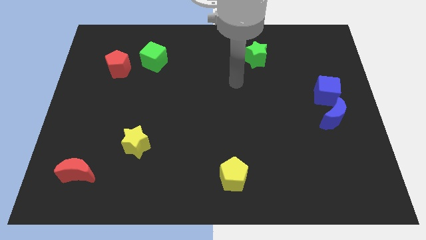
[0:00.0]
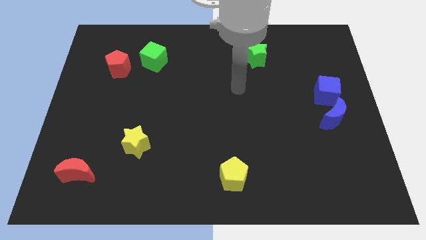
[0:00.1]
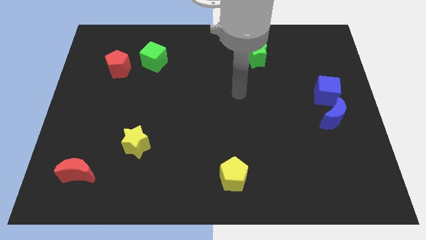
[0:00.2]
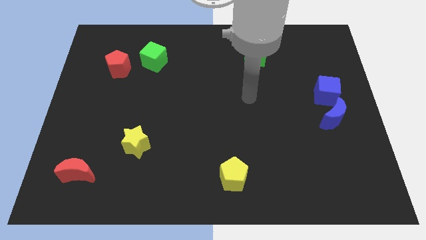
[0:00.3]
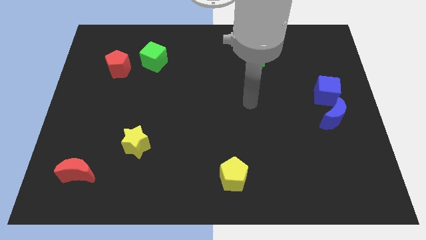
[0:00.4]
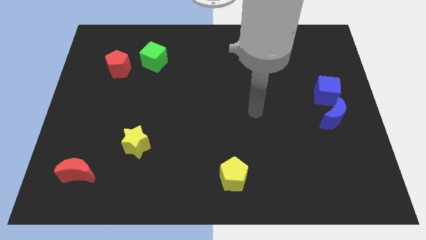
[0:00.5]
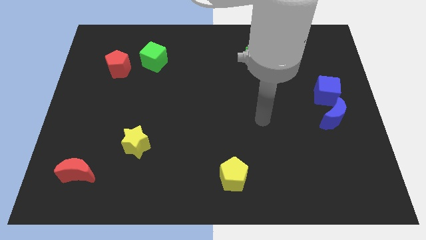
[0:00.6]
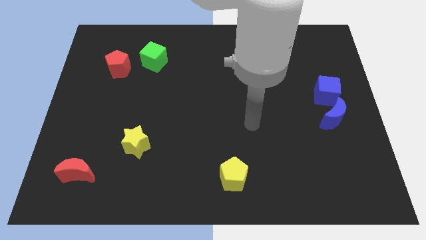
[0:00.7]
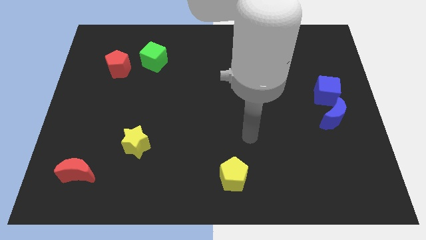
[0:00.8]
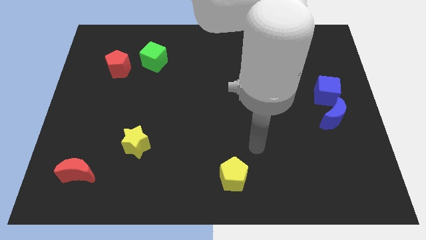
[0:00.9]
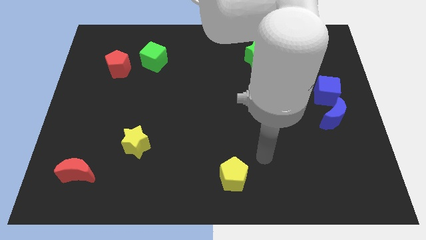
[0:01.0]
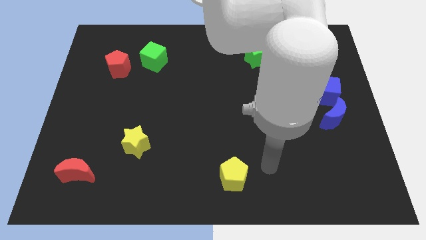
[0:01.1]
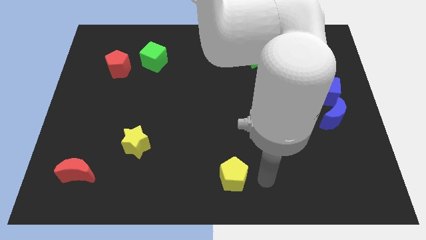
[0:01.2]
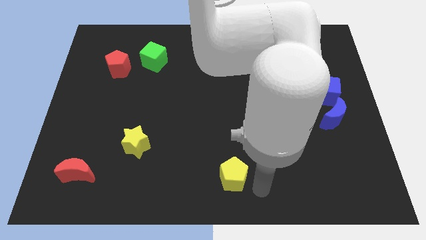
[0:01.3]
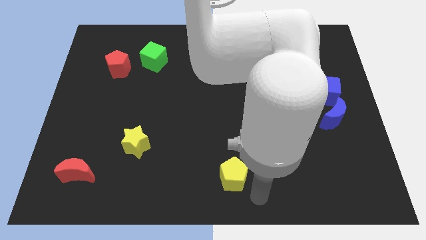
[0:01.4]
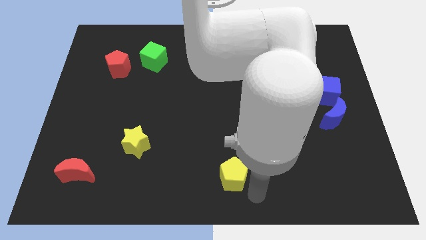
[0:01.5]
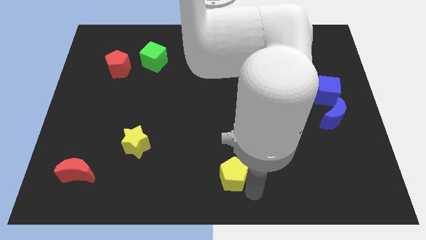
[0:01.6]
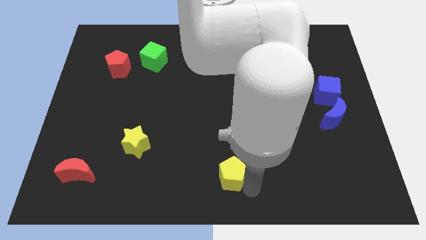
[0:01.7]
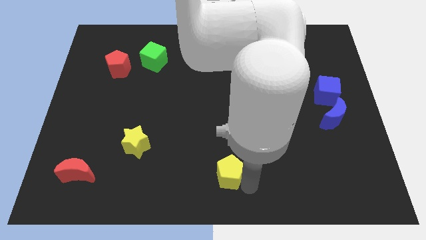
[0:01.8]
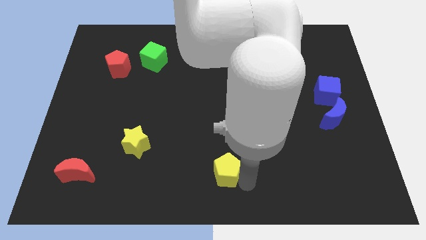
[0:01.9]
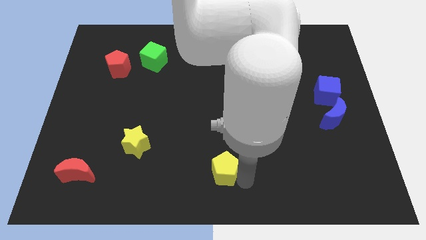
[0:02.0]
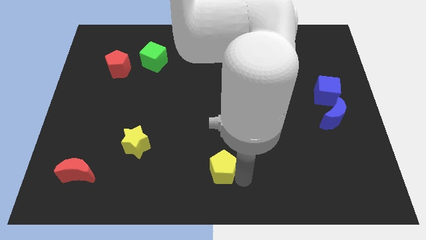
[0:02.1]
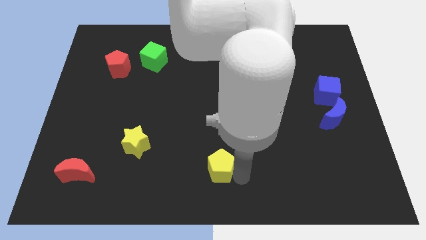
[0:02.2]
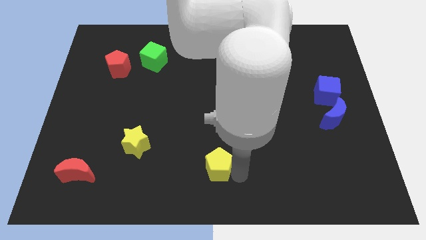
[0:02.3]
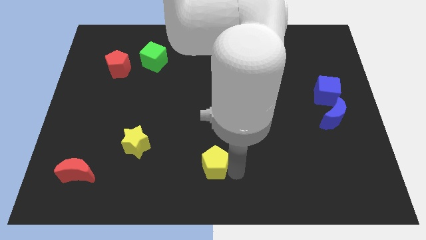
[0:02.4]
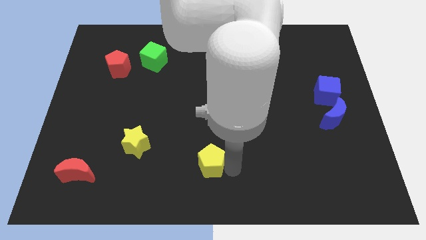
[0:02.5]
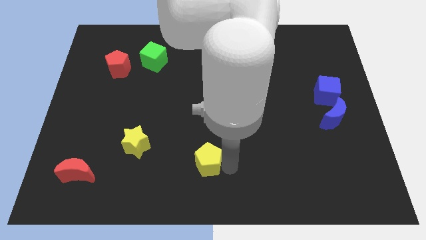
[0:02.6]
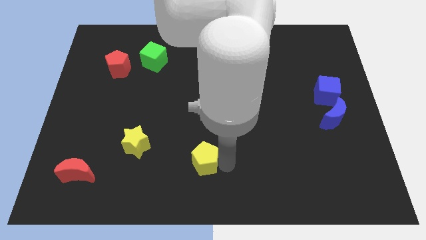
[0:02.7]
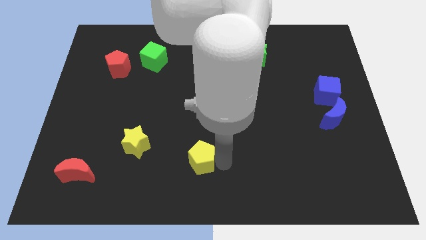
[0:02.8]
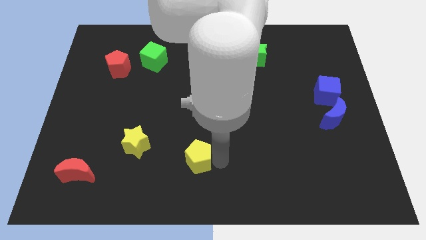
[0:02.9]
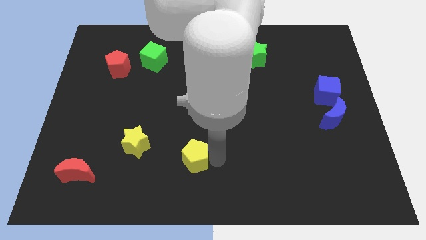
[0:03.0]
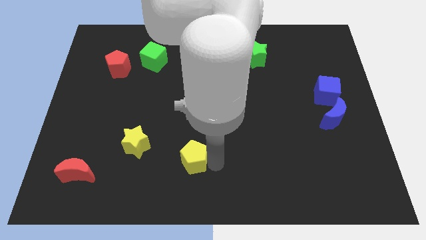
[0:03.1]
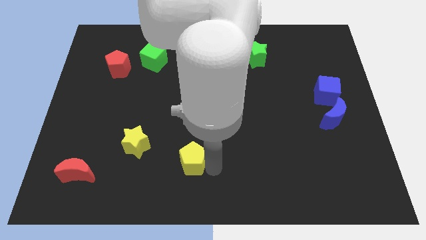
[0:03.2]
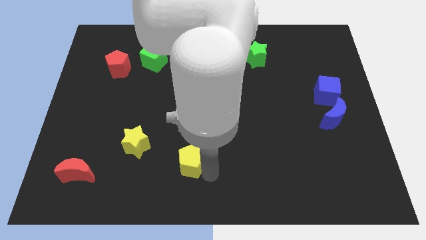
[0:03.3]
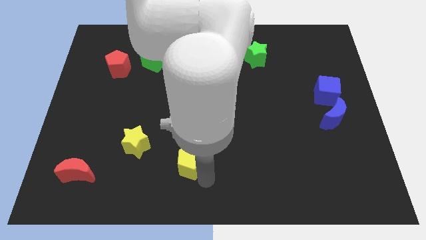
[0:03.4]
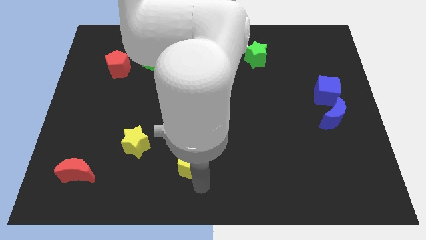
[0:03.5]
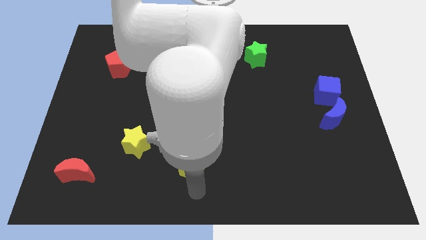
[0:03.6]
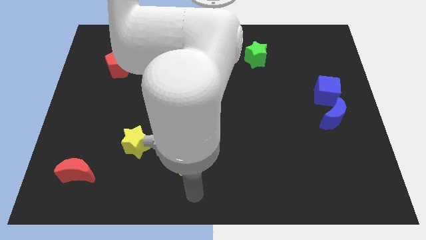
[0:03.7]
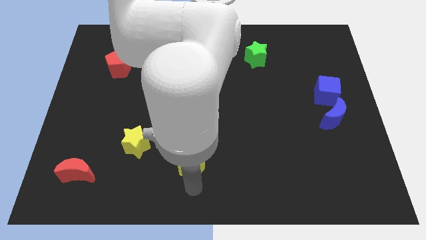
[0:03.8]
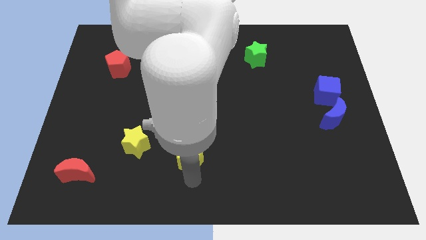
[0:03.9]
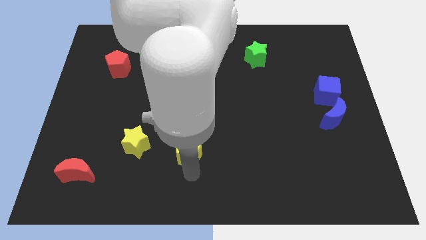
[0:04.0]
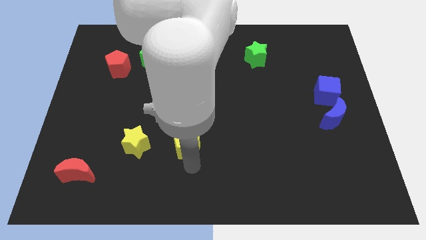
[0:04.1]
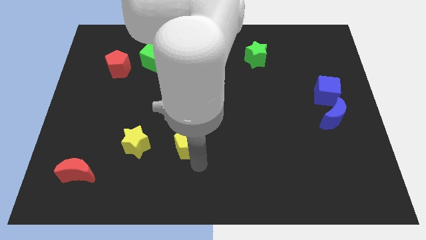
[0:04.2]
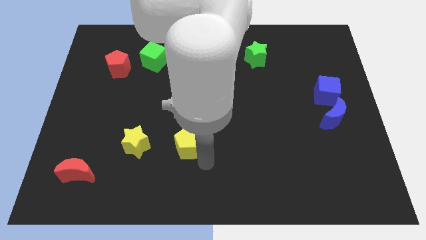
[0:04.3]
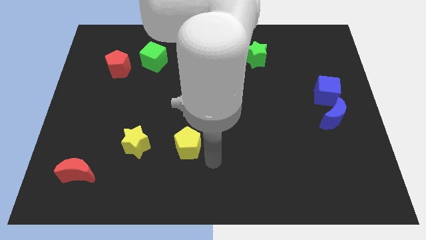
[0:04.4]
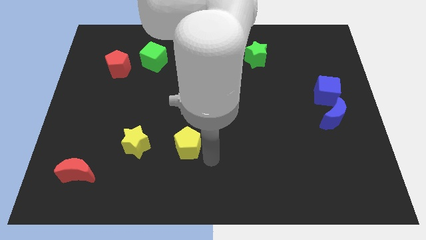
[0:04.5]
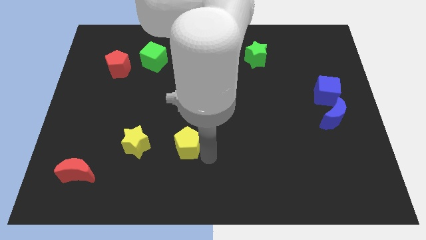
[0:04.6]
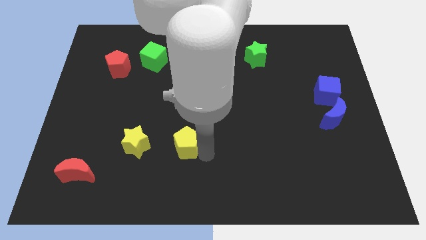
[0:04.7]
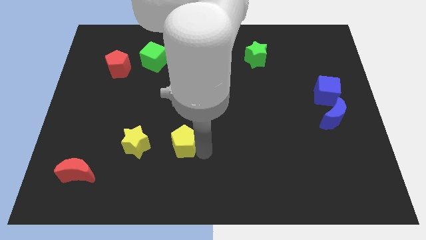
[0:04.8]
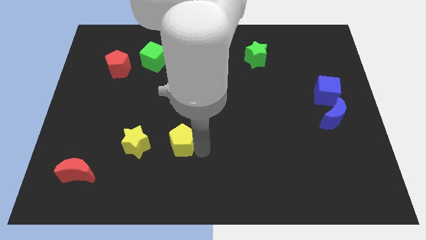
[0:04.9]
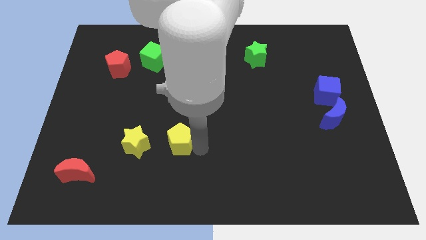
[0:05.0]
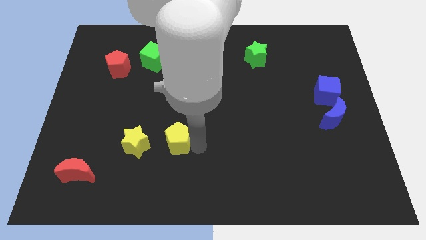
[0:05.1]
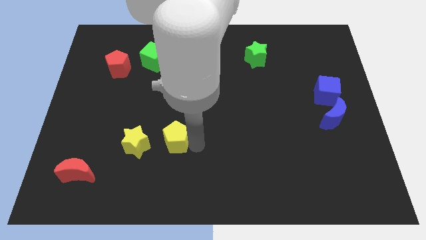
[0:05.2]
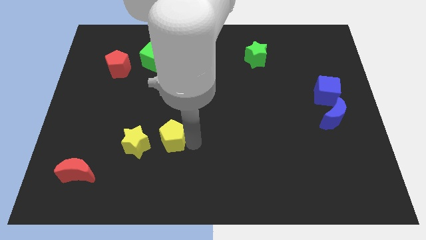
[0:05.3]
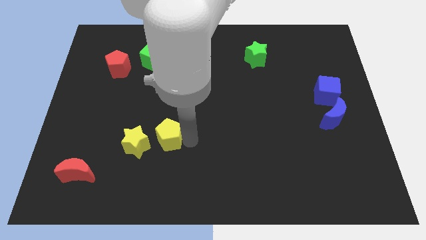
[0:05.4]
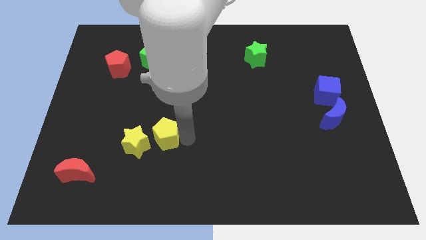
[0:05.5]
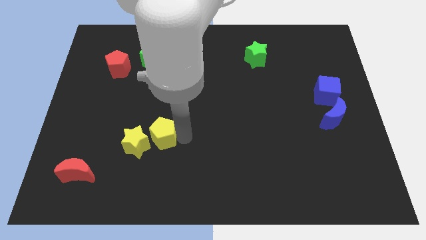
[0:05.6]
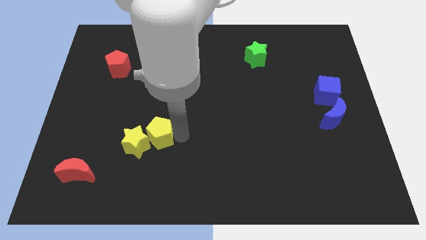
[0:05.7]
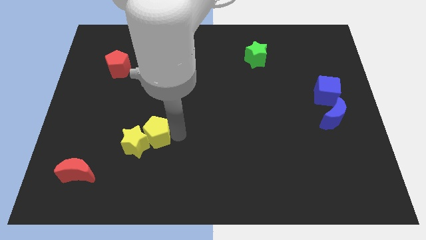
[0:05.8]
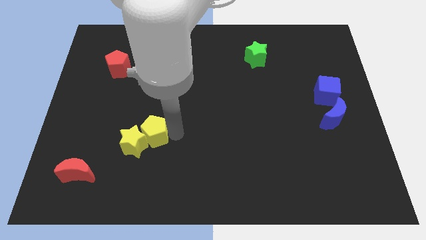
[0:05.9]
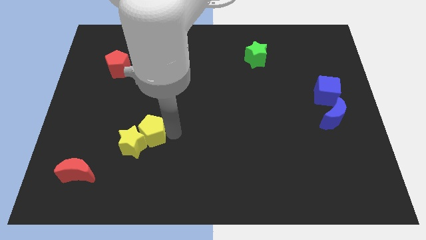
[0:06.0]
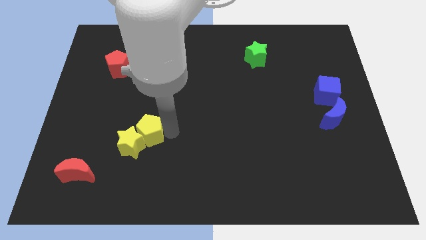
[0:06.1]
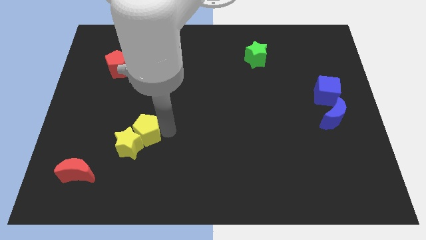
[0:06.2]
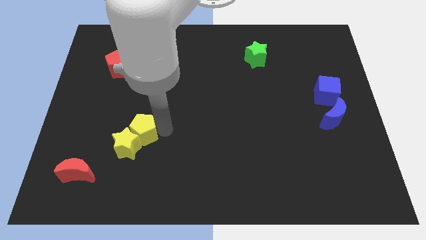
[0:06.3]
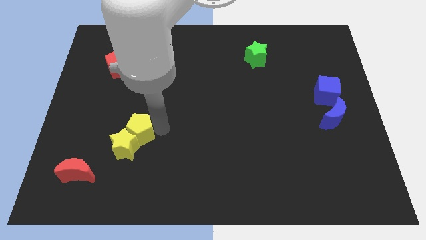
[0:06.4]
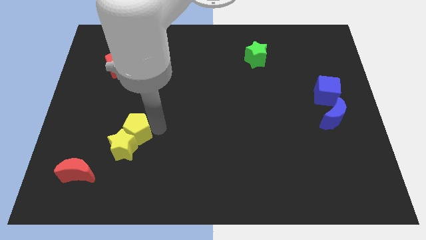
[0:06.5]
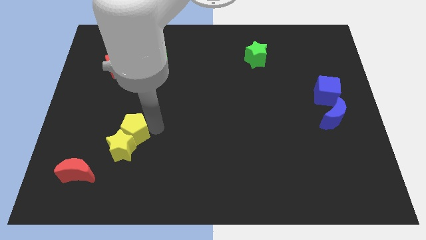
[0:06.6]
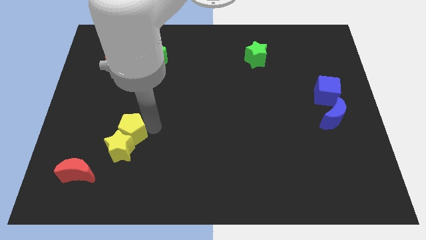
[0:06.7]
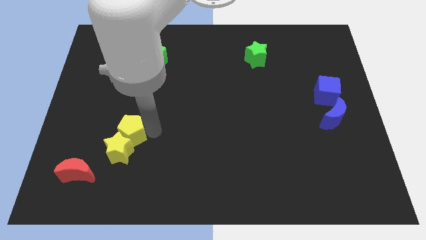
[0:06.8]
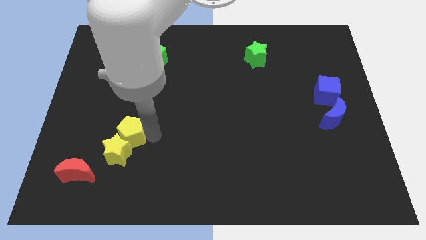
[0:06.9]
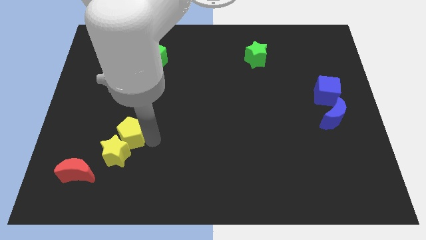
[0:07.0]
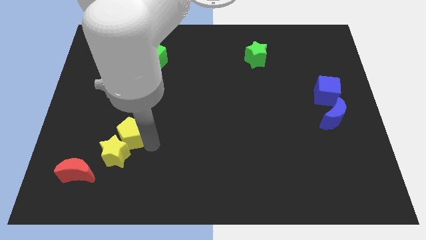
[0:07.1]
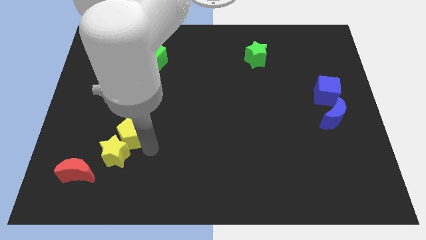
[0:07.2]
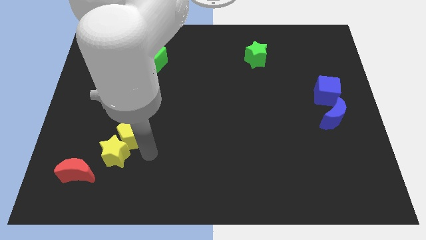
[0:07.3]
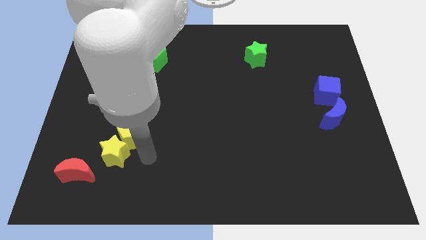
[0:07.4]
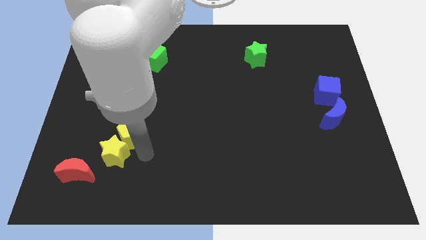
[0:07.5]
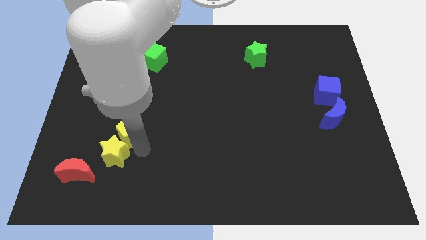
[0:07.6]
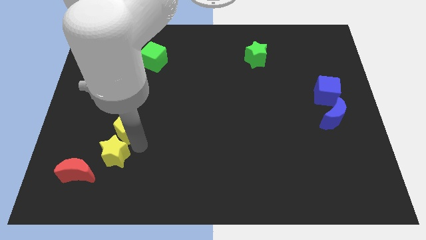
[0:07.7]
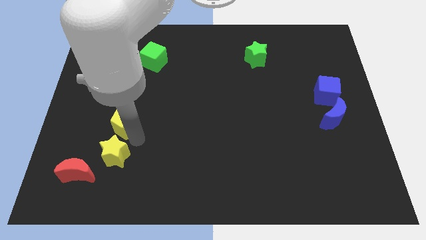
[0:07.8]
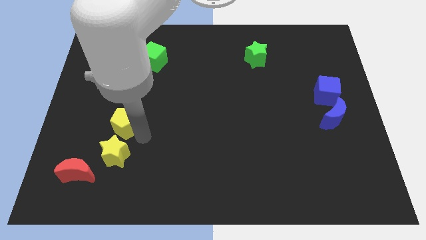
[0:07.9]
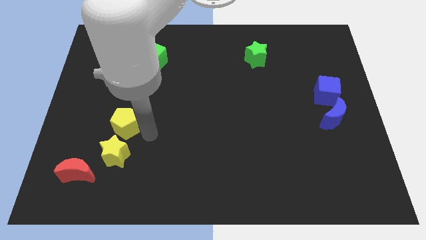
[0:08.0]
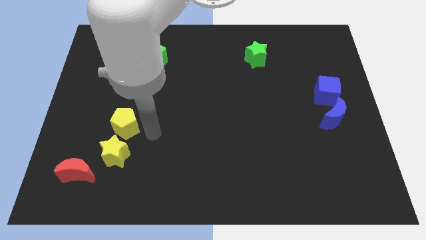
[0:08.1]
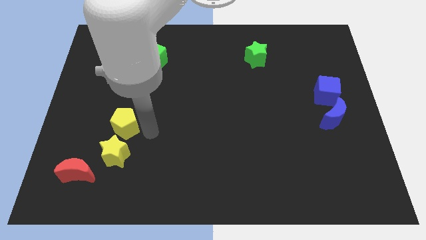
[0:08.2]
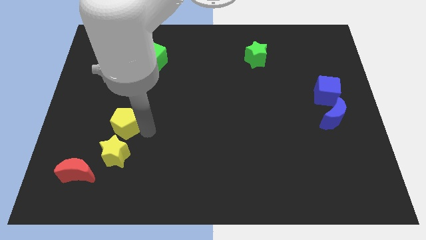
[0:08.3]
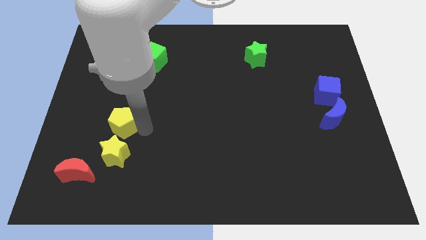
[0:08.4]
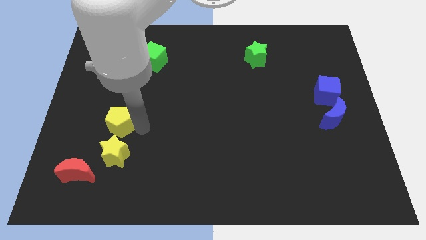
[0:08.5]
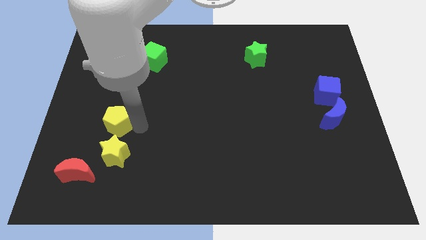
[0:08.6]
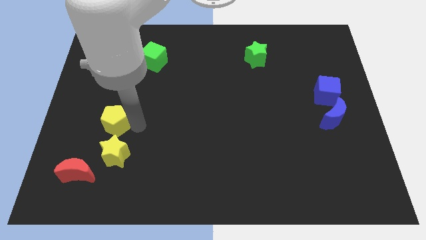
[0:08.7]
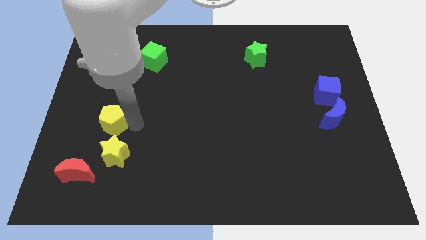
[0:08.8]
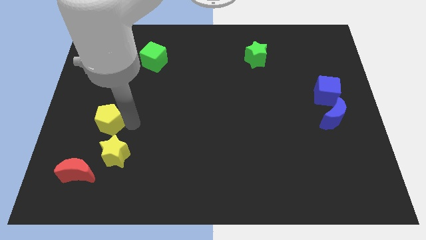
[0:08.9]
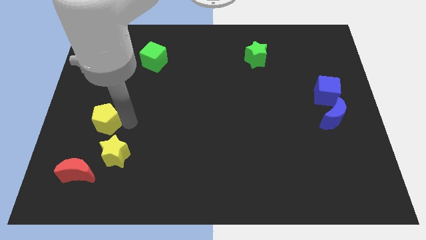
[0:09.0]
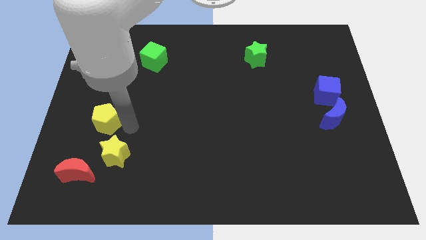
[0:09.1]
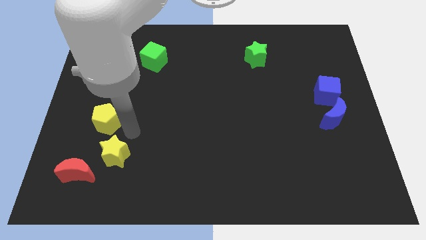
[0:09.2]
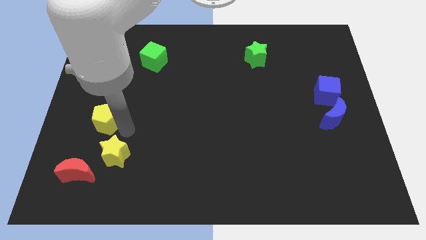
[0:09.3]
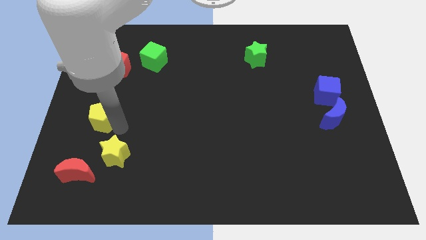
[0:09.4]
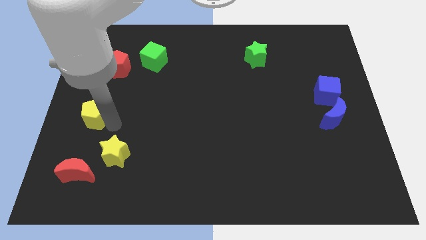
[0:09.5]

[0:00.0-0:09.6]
slide the yellow pentagon to the left side
